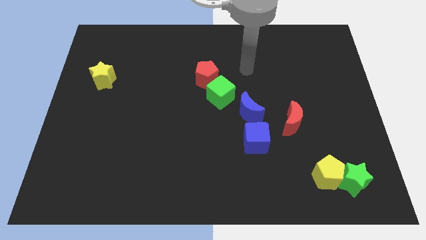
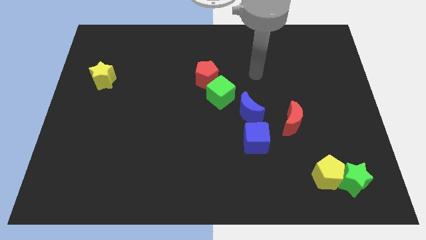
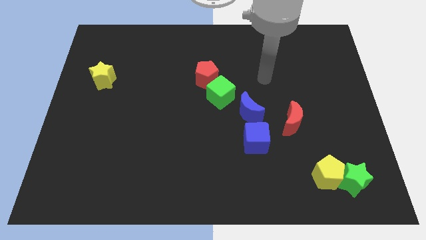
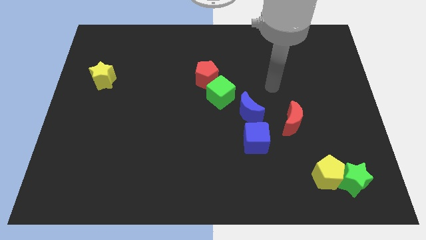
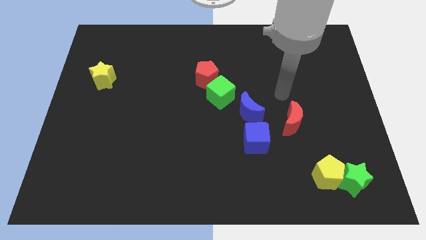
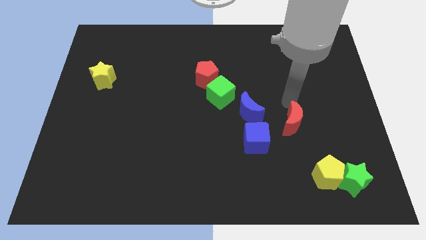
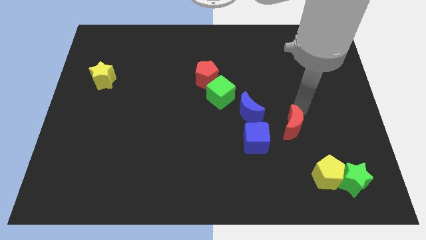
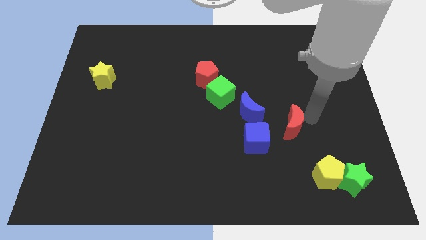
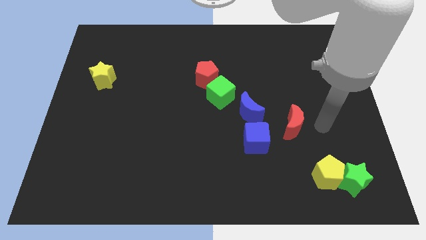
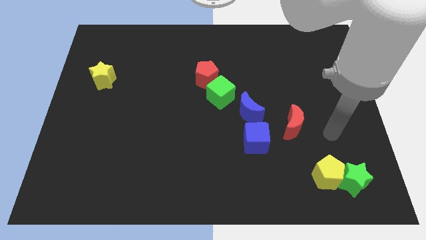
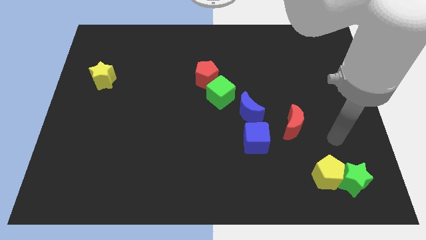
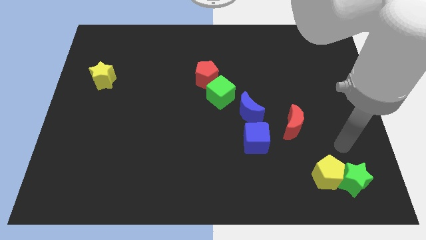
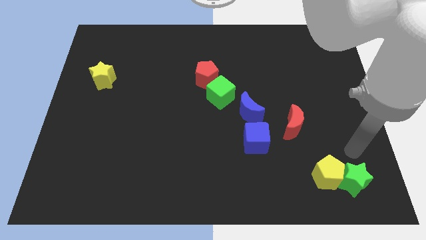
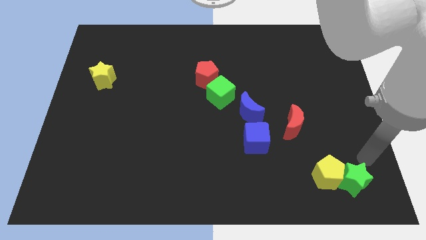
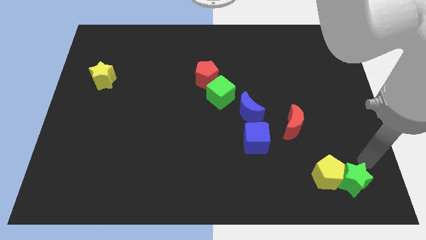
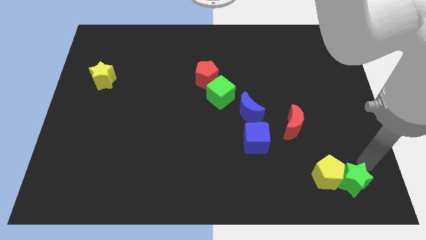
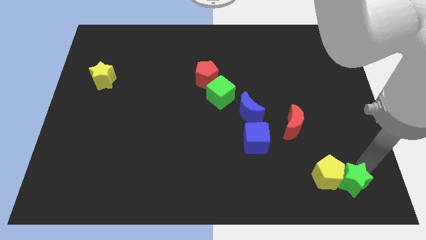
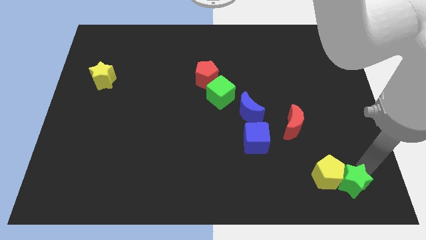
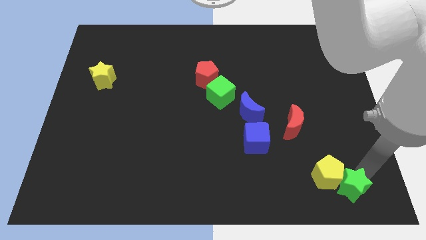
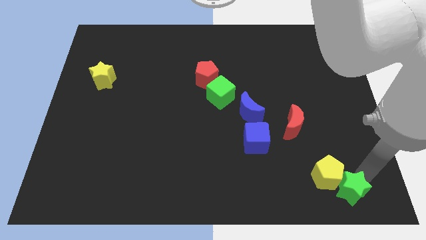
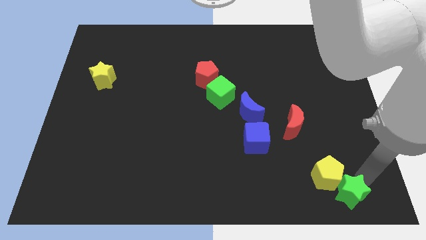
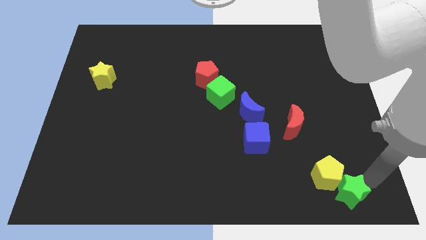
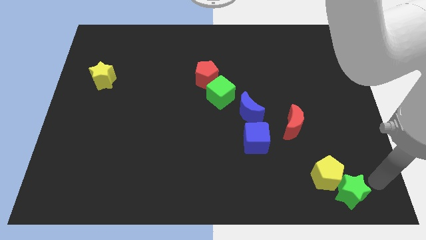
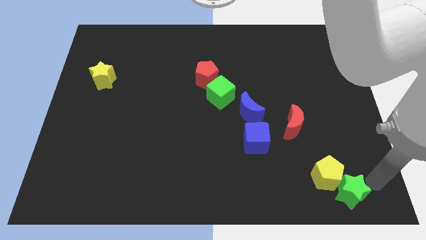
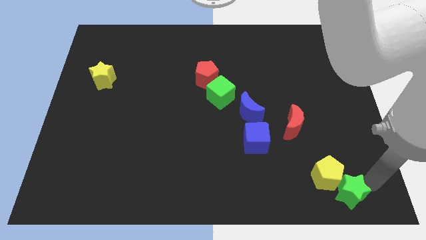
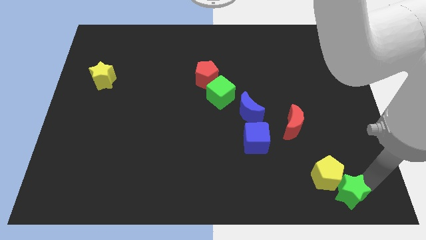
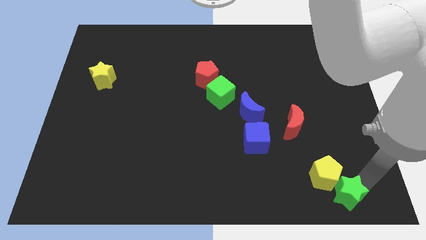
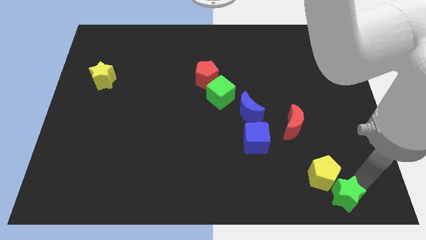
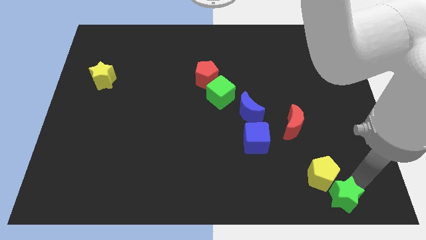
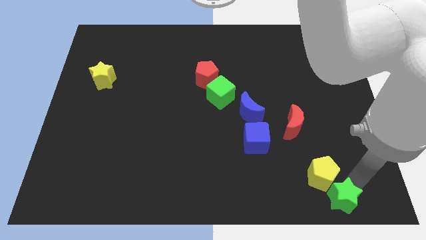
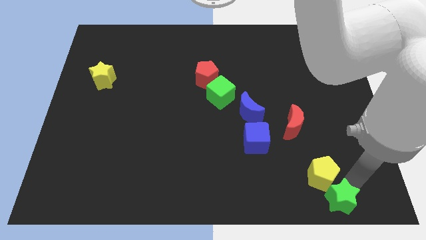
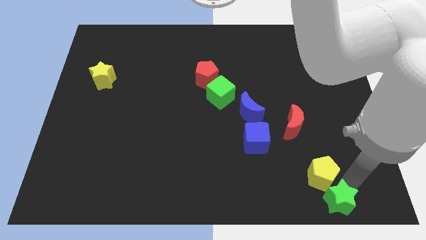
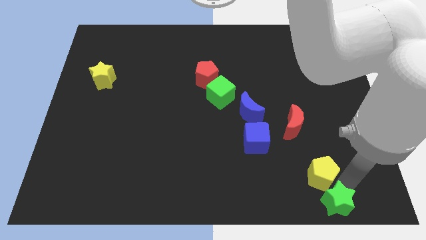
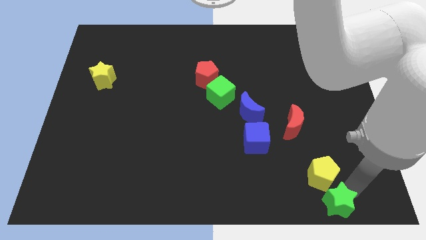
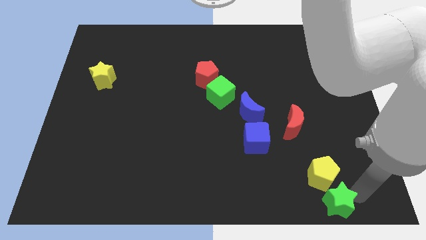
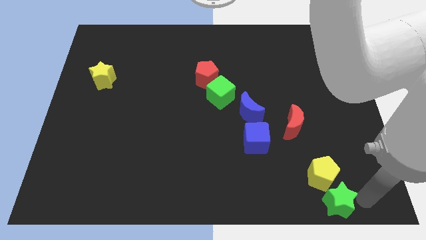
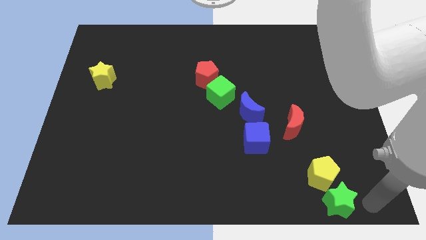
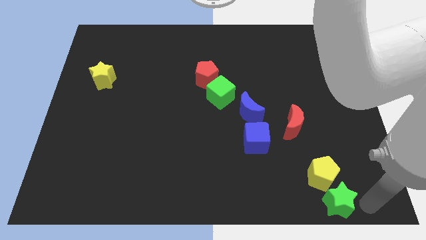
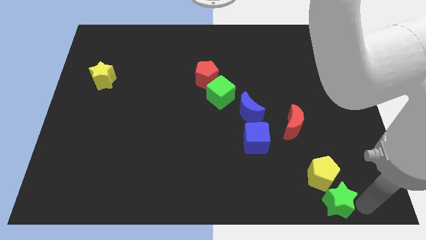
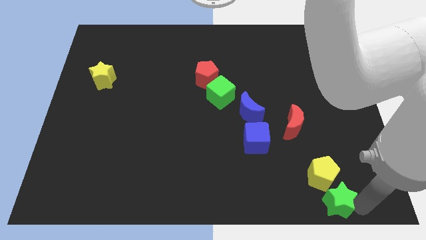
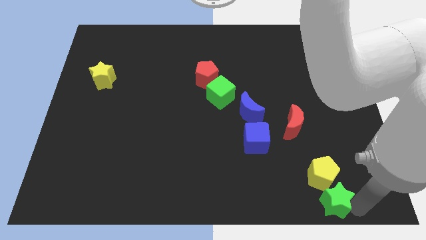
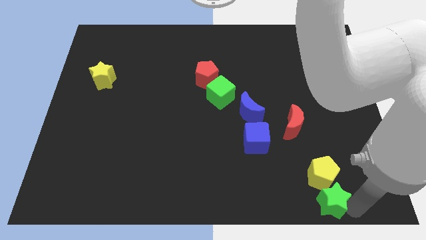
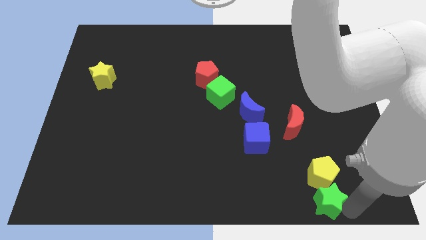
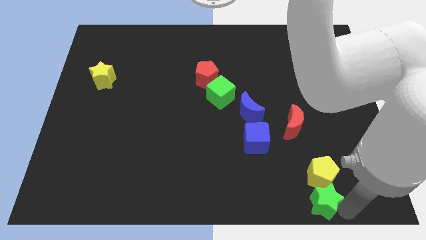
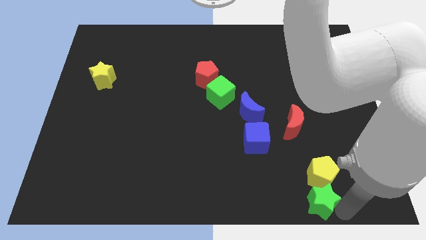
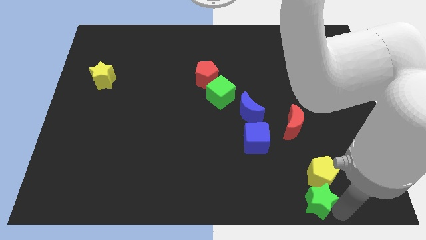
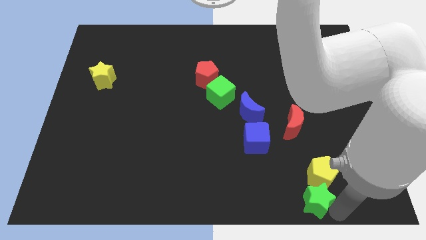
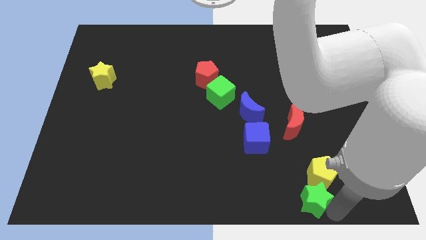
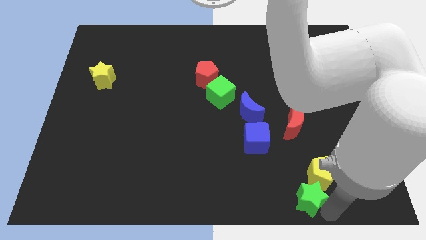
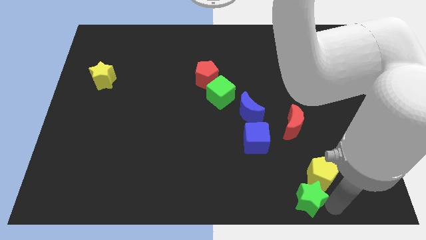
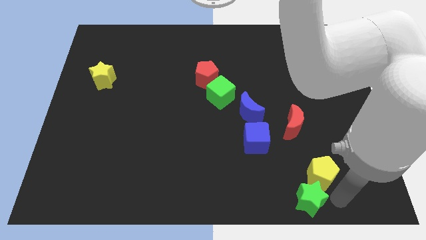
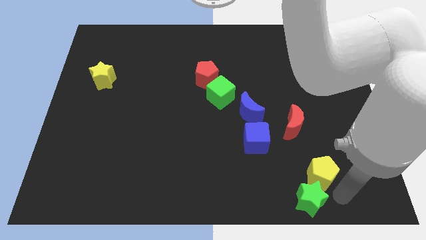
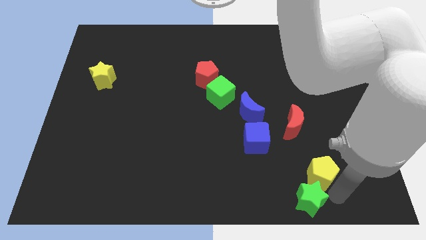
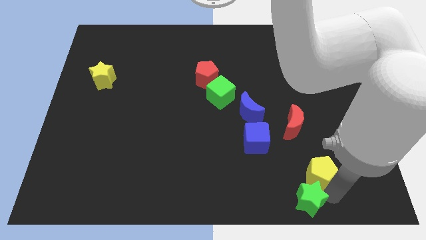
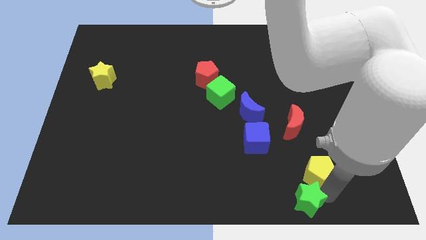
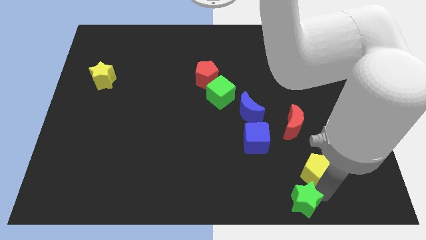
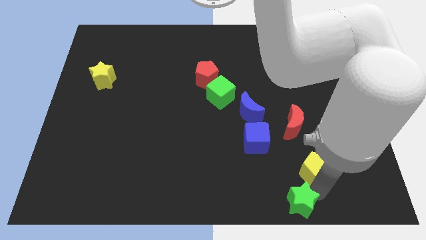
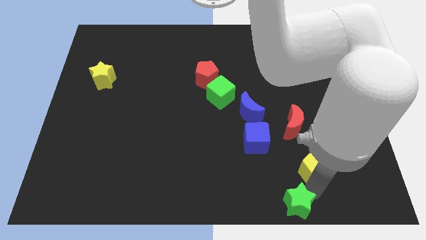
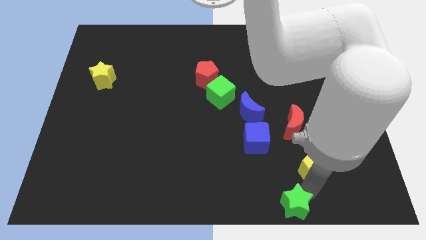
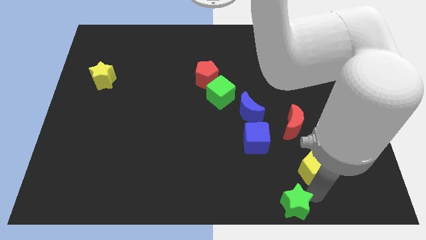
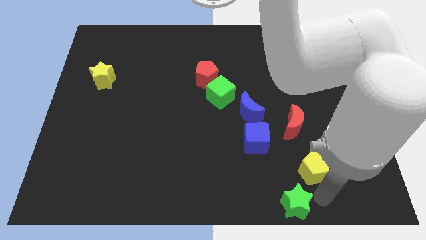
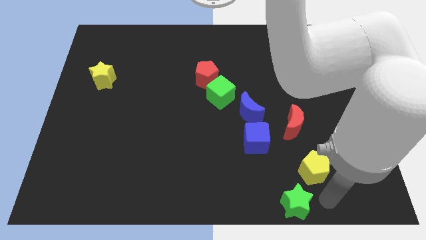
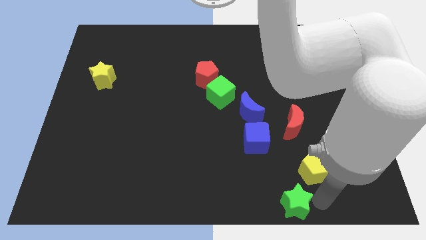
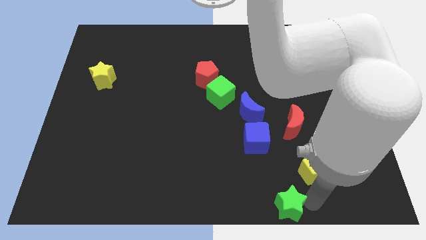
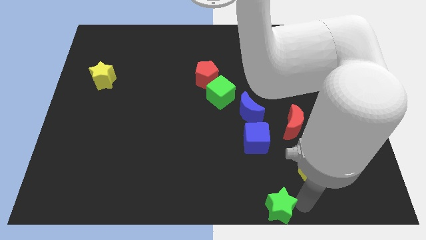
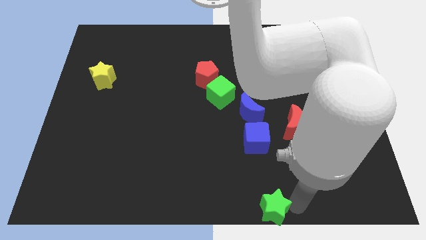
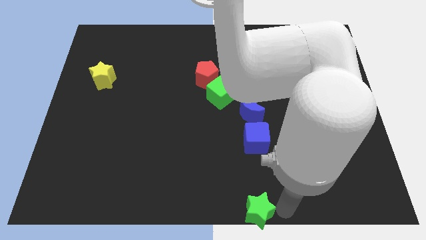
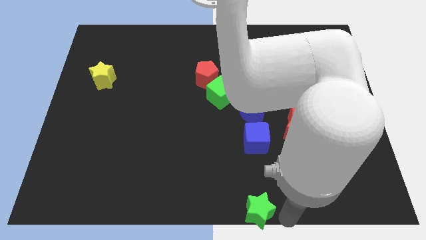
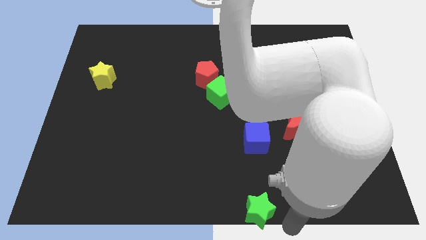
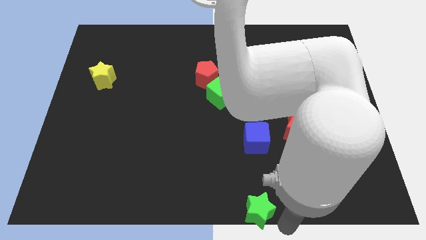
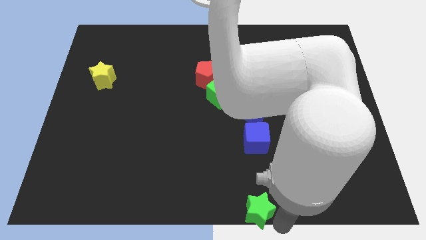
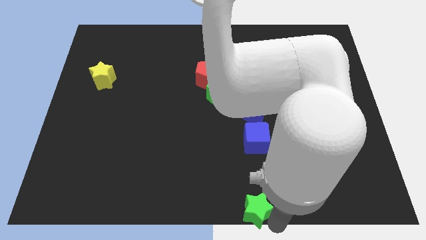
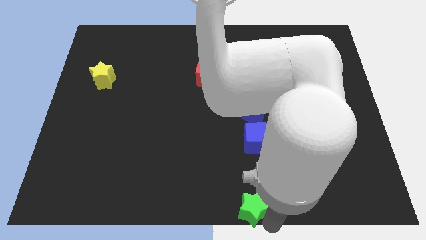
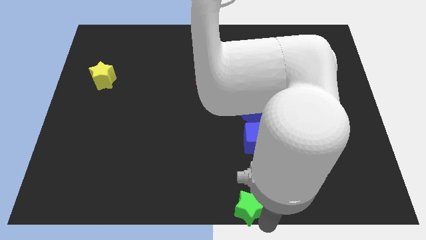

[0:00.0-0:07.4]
push the green star to the left

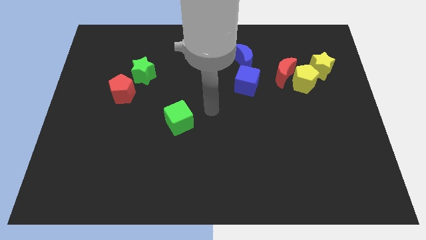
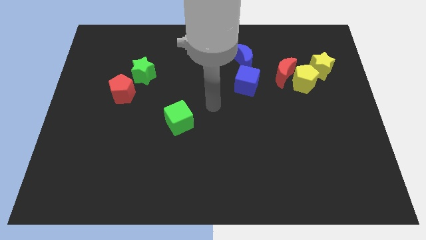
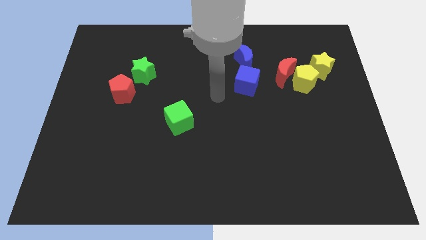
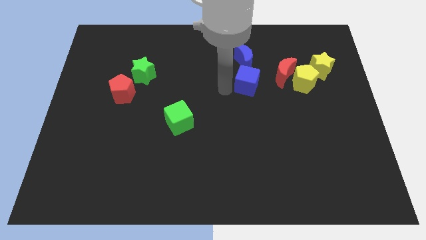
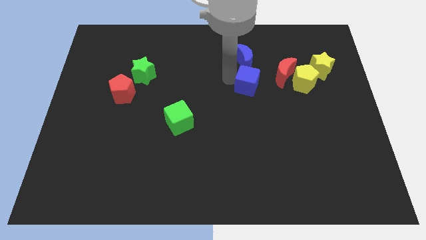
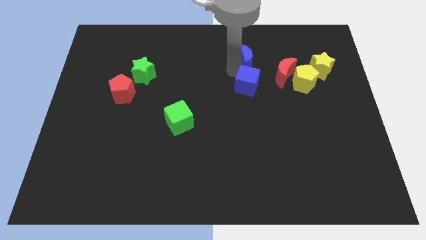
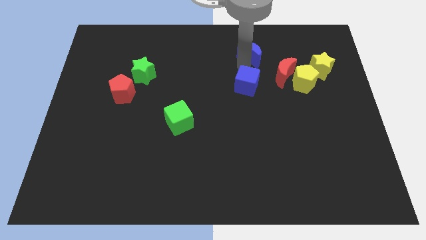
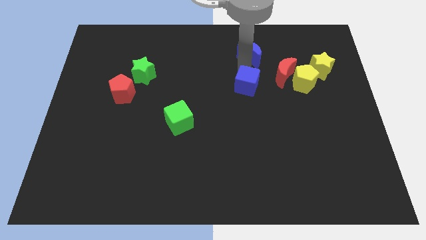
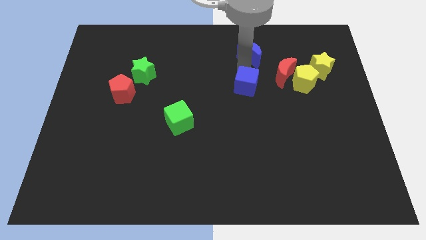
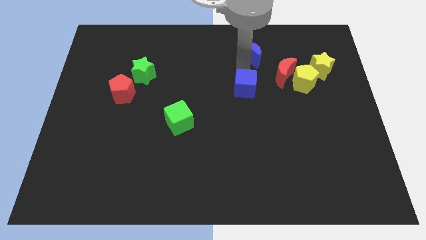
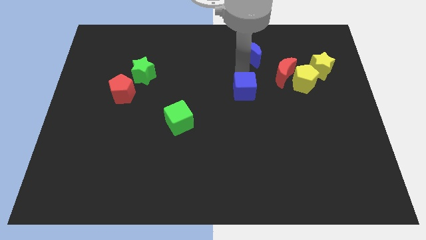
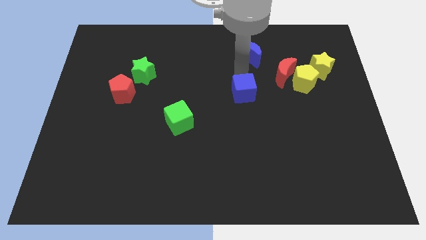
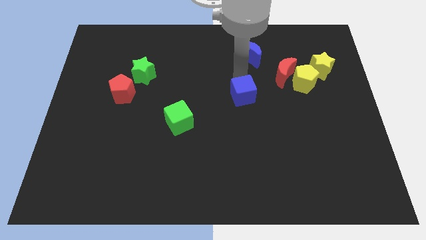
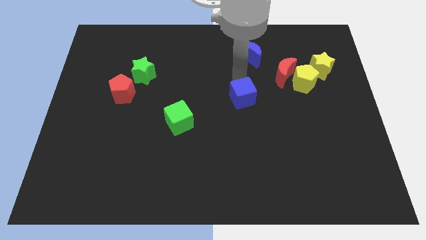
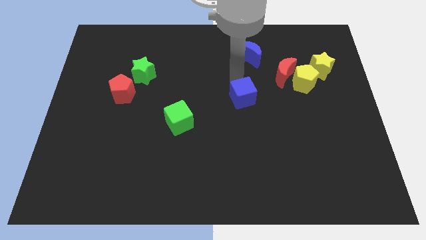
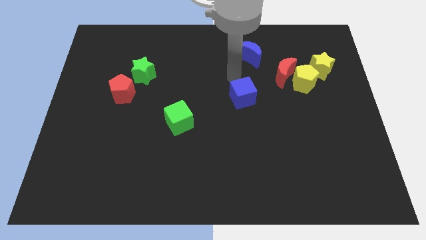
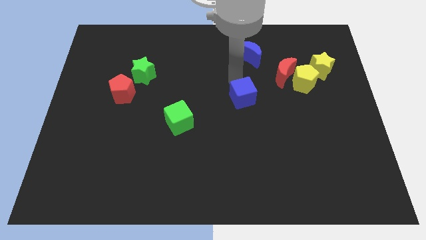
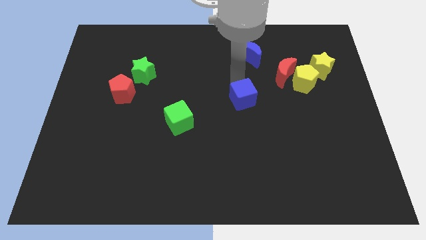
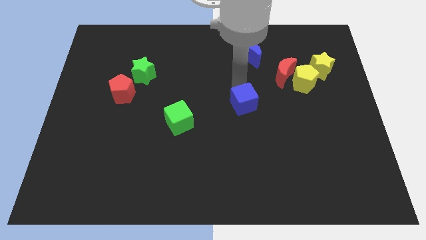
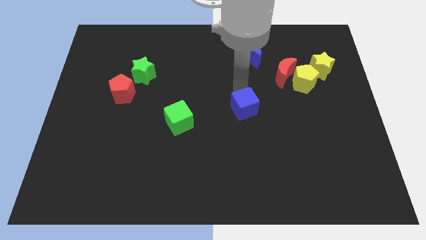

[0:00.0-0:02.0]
move the blue cube somewhat down
